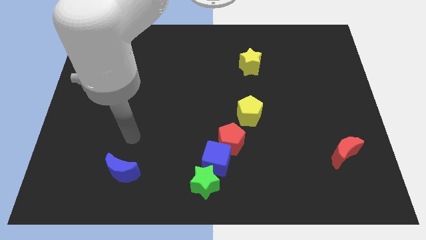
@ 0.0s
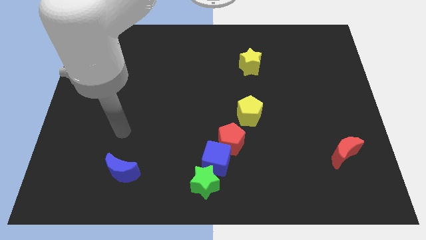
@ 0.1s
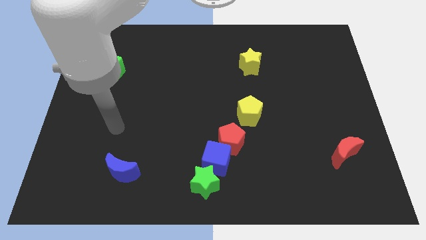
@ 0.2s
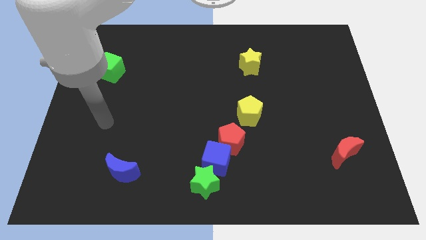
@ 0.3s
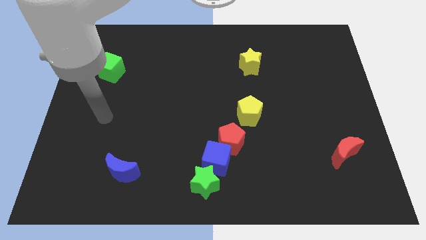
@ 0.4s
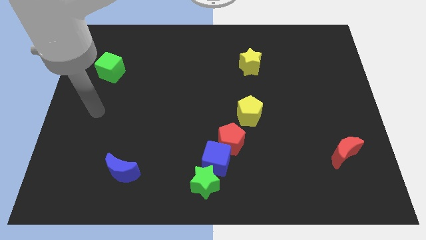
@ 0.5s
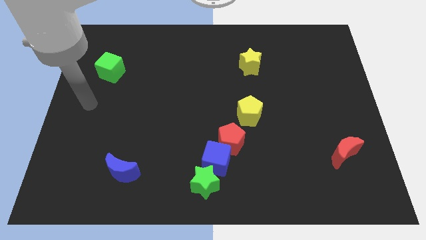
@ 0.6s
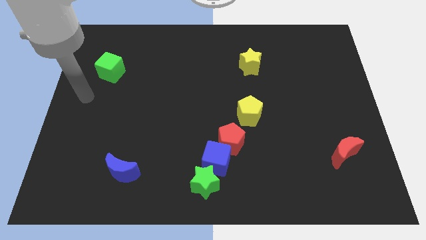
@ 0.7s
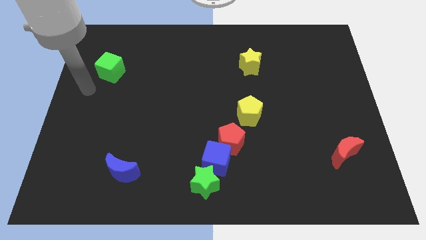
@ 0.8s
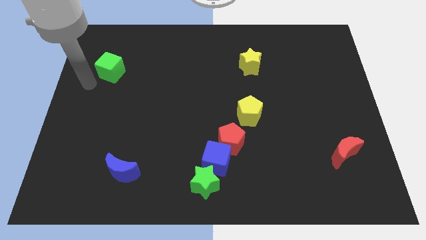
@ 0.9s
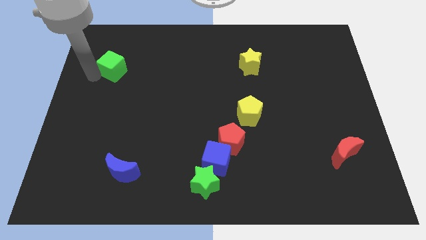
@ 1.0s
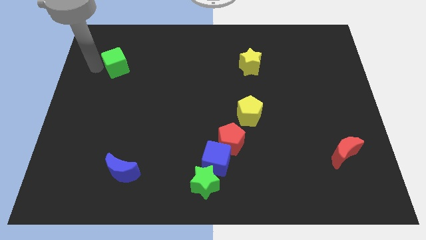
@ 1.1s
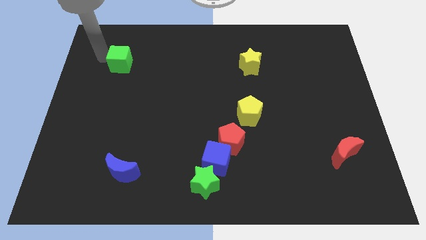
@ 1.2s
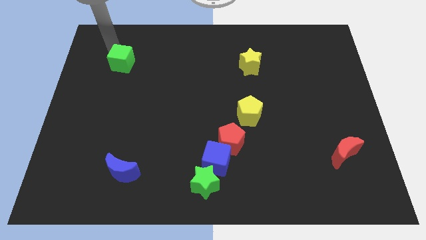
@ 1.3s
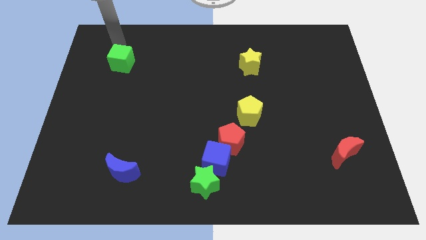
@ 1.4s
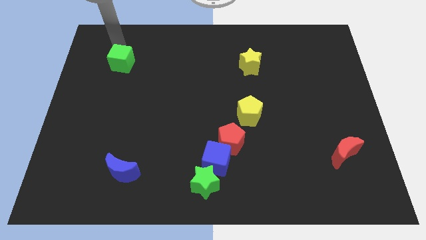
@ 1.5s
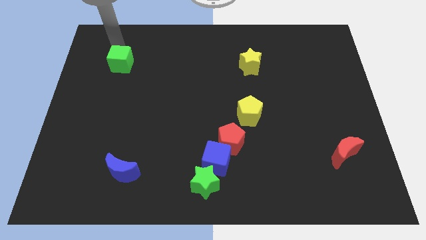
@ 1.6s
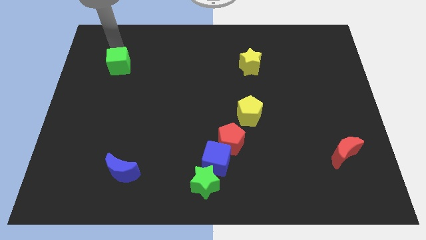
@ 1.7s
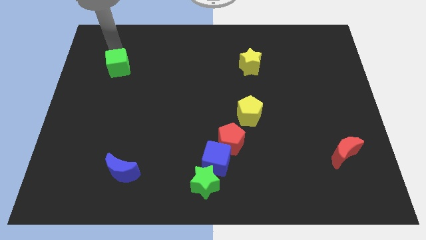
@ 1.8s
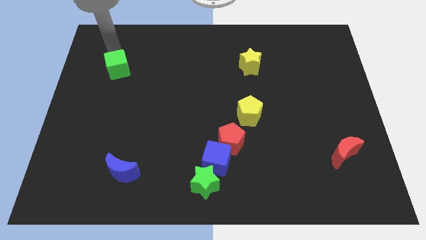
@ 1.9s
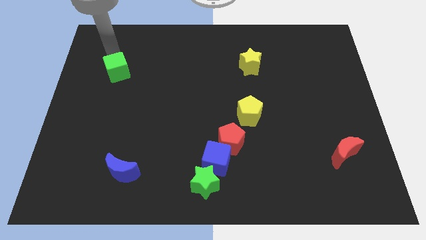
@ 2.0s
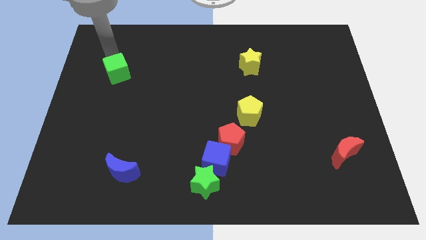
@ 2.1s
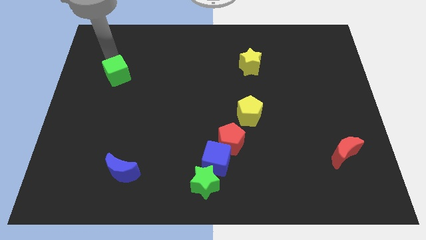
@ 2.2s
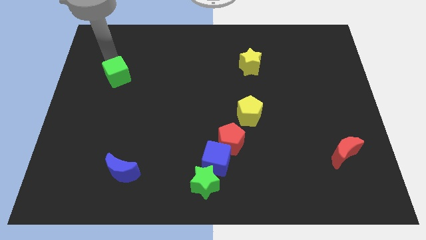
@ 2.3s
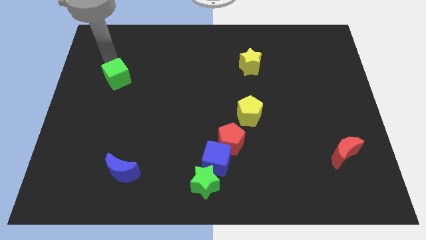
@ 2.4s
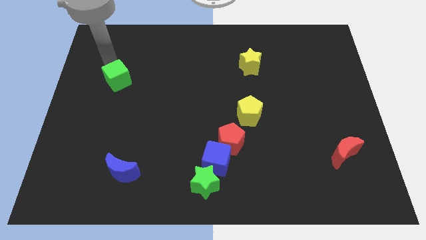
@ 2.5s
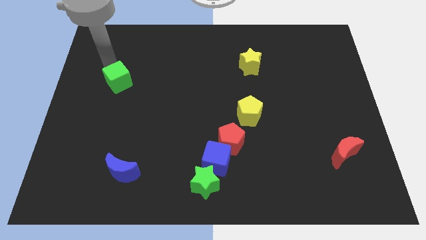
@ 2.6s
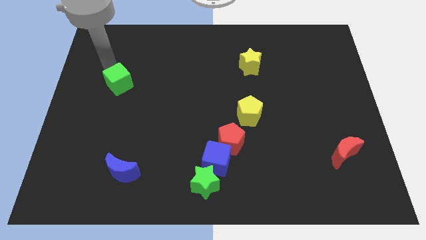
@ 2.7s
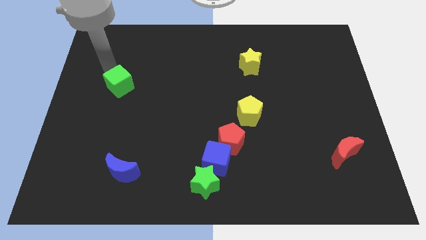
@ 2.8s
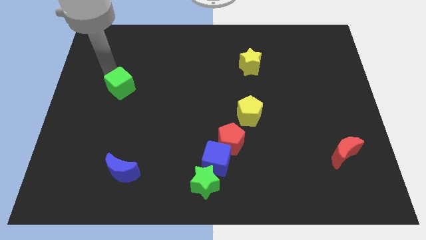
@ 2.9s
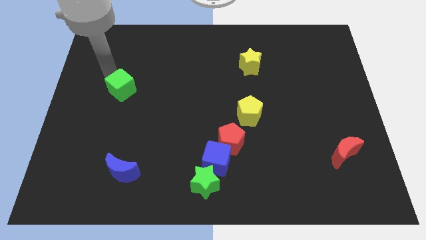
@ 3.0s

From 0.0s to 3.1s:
slide the green cube down and then to the right slightly

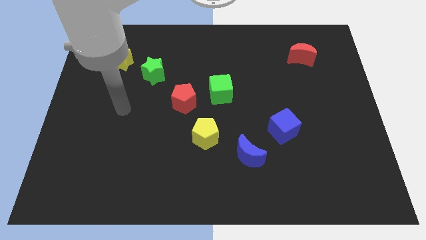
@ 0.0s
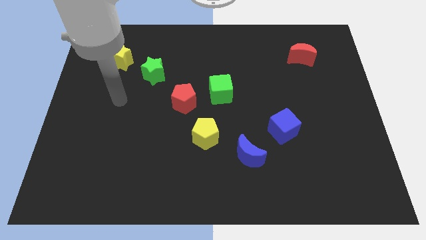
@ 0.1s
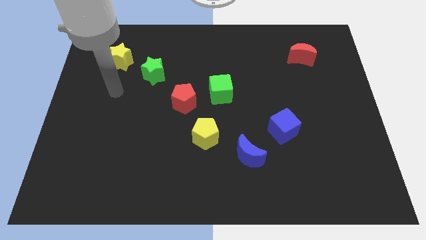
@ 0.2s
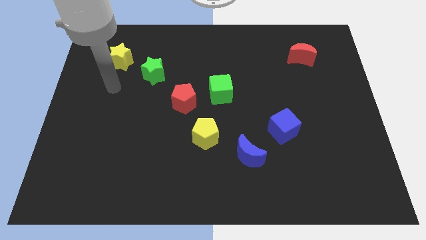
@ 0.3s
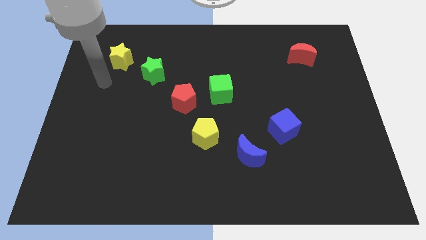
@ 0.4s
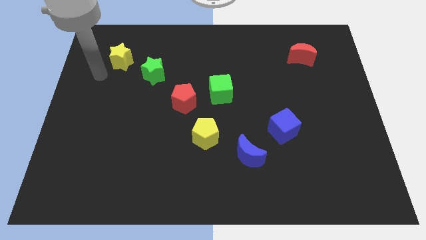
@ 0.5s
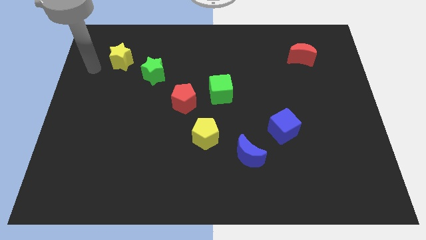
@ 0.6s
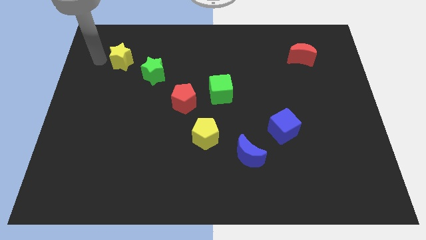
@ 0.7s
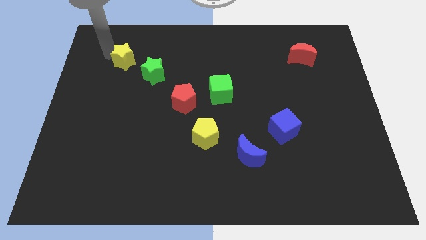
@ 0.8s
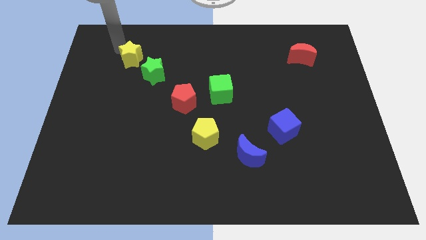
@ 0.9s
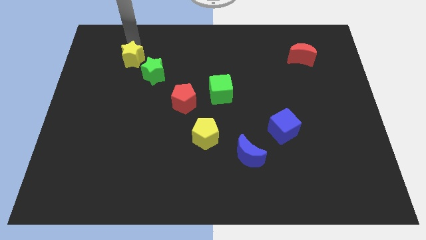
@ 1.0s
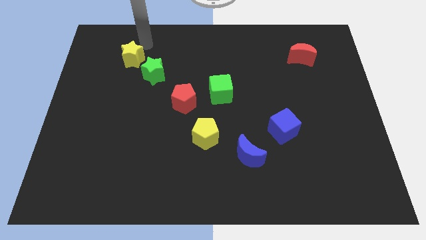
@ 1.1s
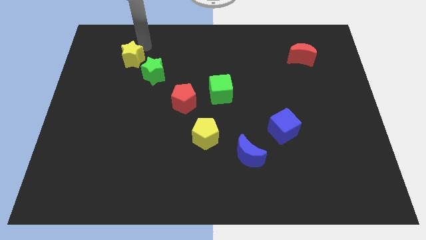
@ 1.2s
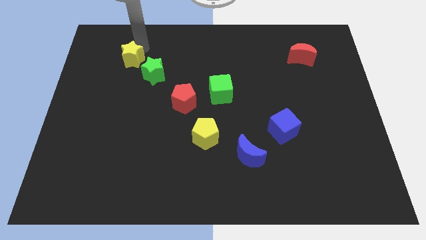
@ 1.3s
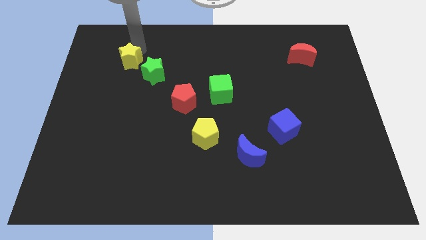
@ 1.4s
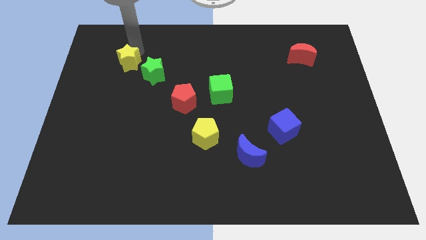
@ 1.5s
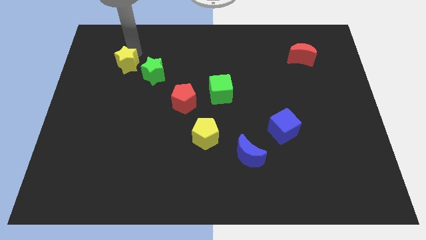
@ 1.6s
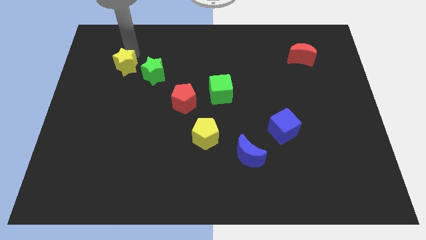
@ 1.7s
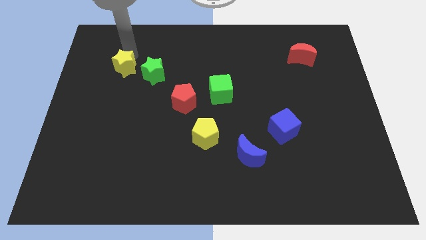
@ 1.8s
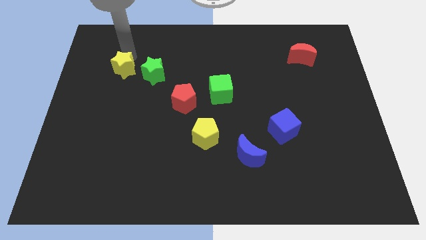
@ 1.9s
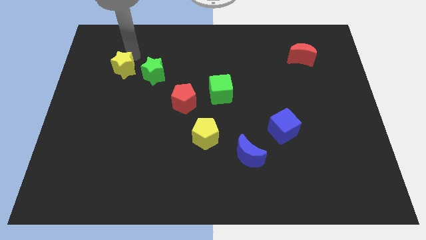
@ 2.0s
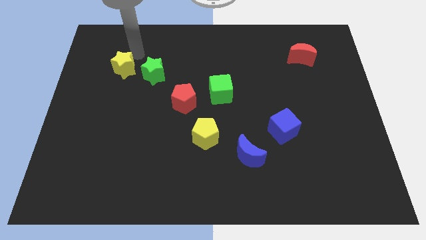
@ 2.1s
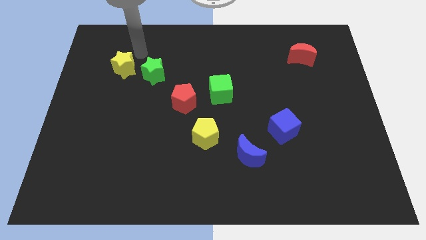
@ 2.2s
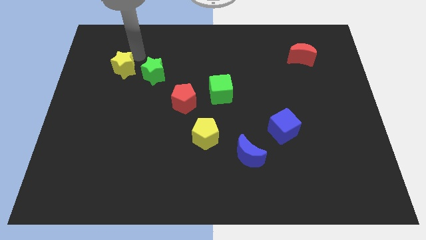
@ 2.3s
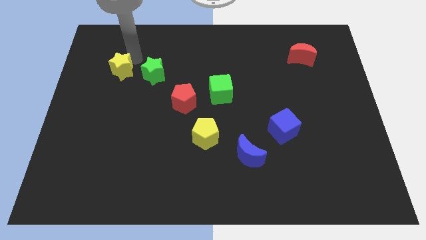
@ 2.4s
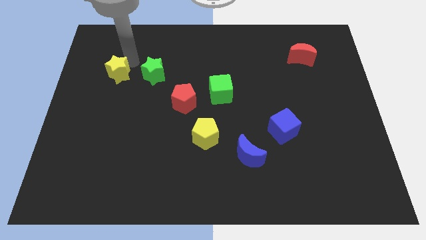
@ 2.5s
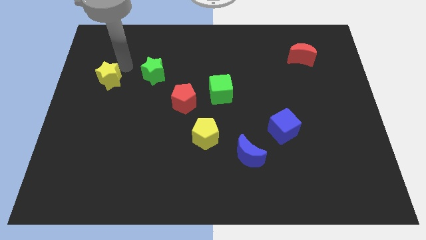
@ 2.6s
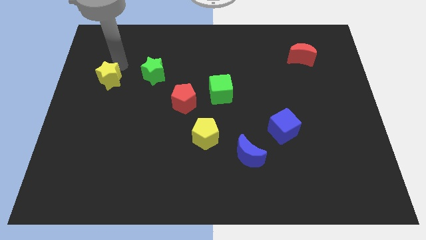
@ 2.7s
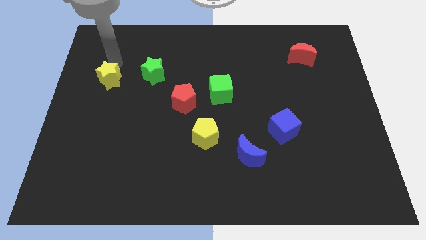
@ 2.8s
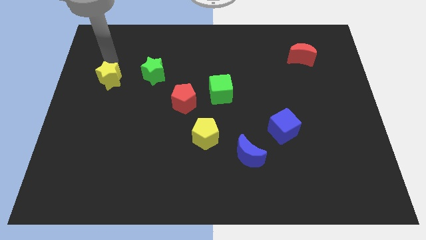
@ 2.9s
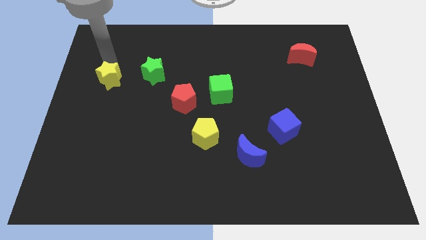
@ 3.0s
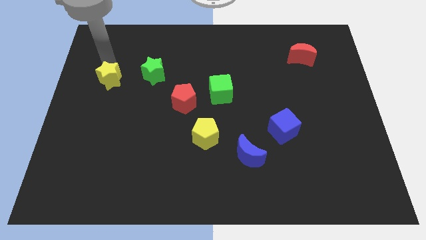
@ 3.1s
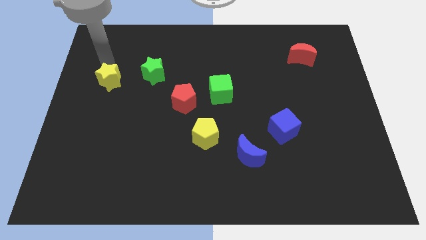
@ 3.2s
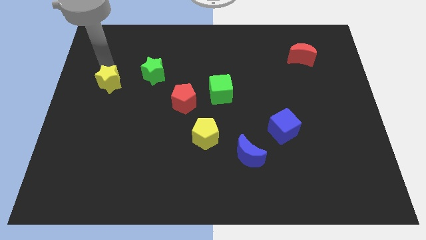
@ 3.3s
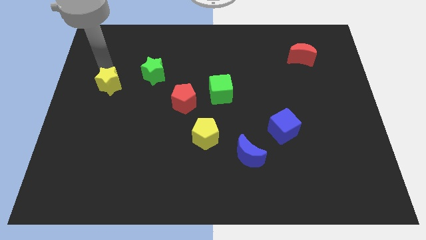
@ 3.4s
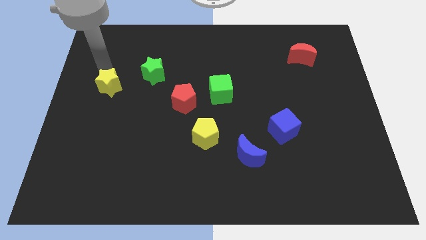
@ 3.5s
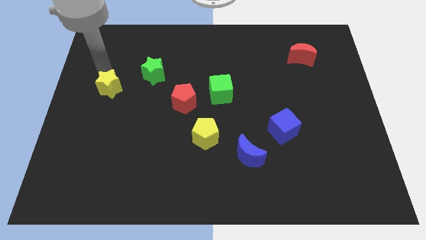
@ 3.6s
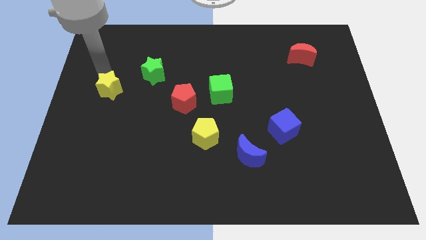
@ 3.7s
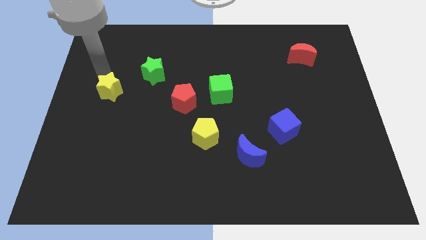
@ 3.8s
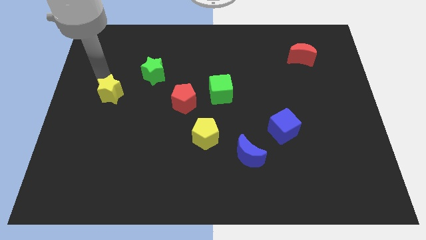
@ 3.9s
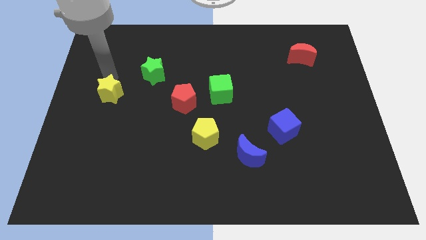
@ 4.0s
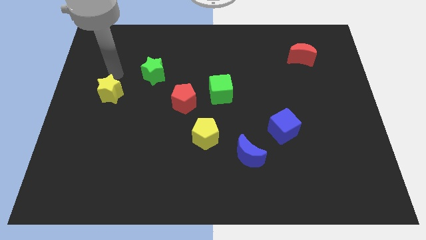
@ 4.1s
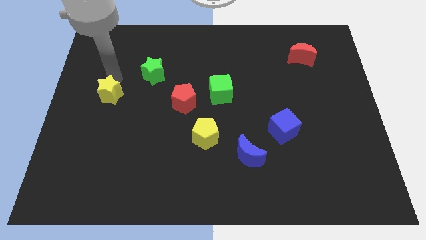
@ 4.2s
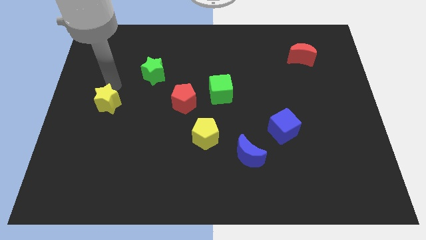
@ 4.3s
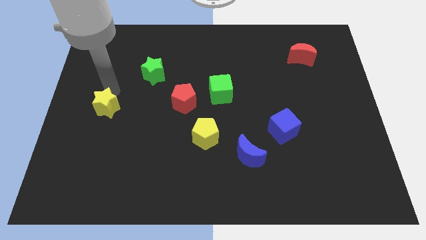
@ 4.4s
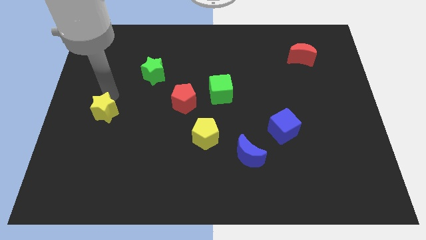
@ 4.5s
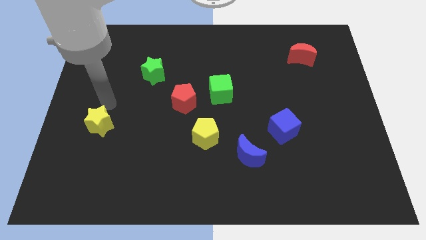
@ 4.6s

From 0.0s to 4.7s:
slide the yellow star downwards

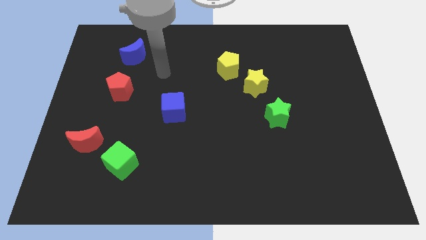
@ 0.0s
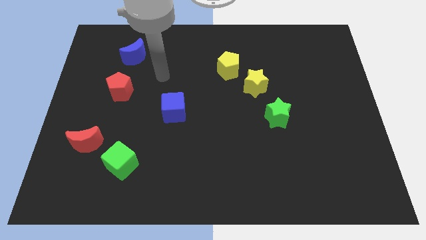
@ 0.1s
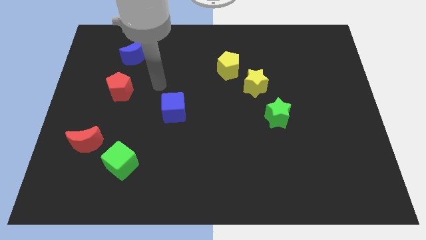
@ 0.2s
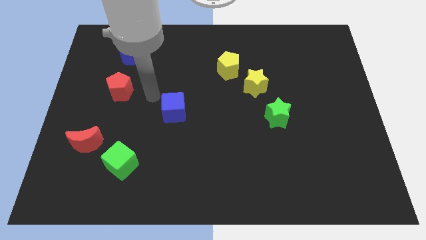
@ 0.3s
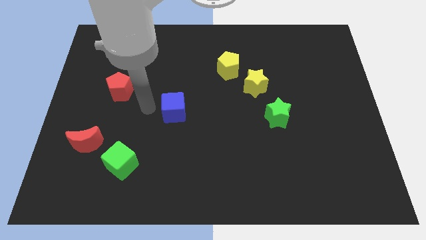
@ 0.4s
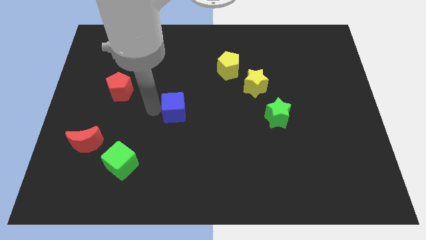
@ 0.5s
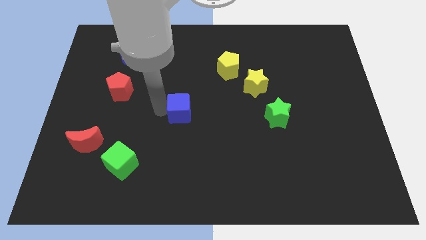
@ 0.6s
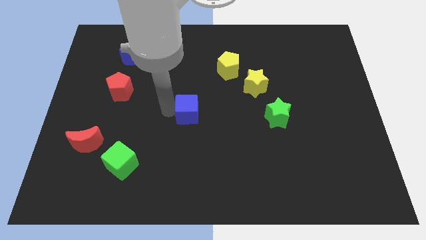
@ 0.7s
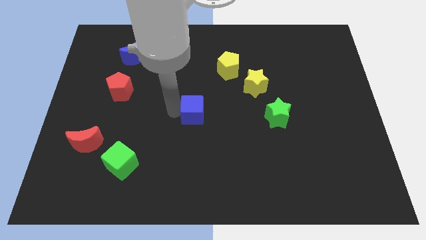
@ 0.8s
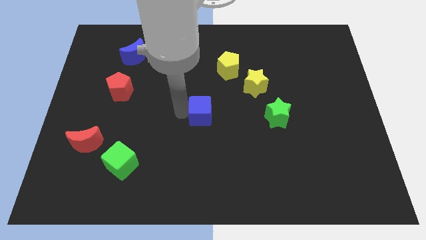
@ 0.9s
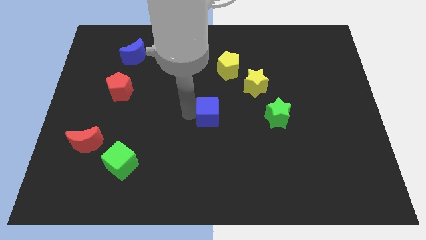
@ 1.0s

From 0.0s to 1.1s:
slightly push the blue cube to the right
